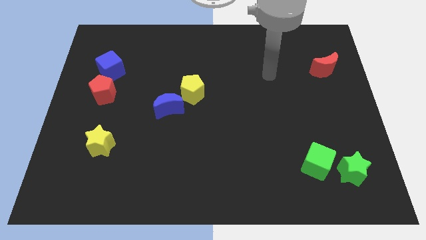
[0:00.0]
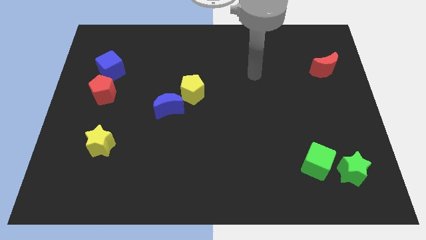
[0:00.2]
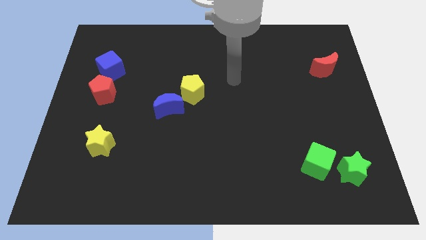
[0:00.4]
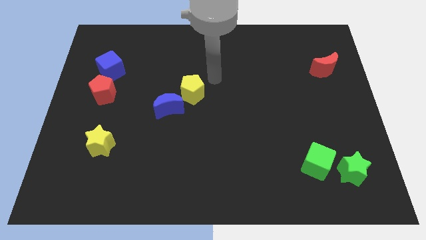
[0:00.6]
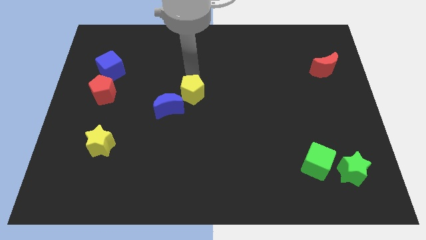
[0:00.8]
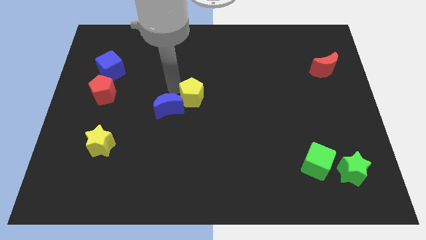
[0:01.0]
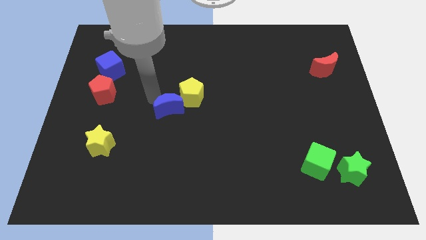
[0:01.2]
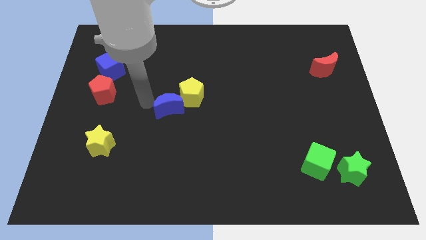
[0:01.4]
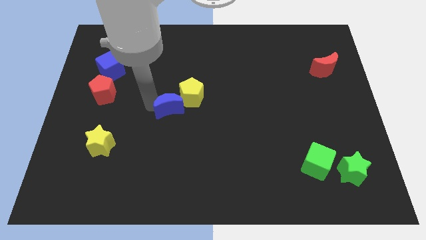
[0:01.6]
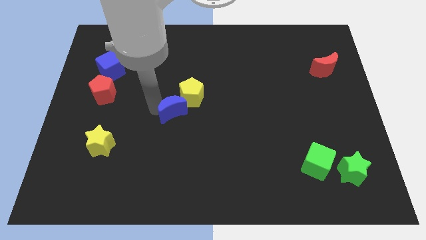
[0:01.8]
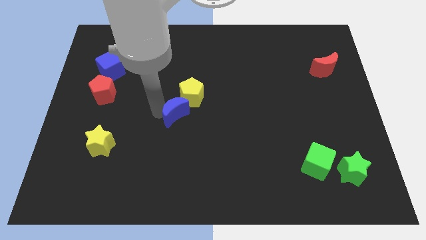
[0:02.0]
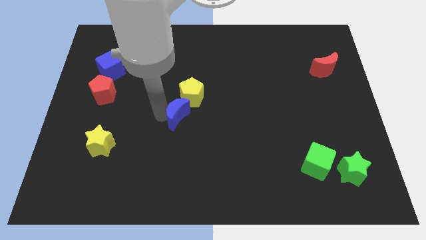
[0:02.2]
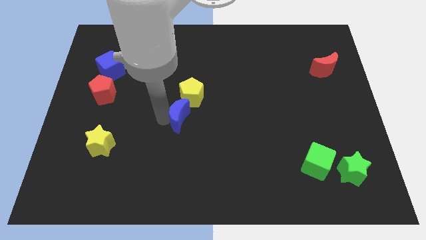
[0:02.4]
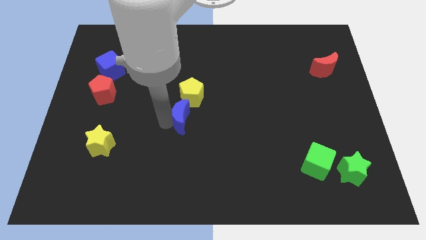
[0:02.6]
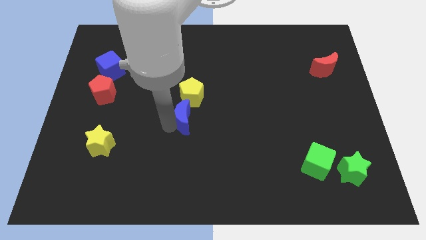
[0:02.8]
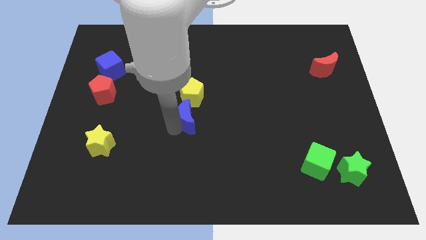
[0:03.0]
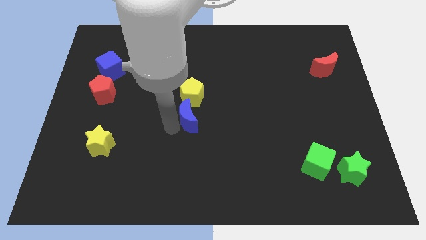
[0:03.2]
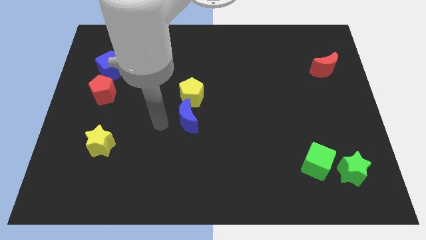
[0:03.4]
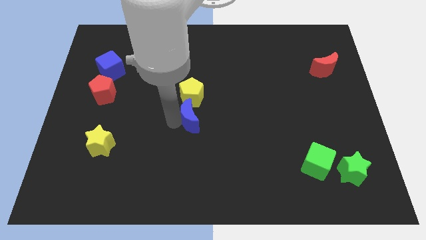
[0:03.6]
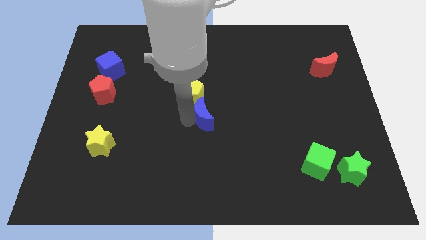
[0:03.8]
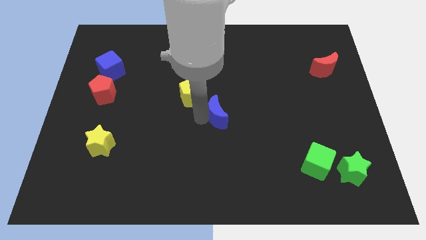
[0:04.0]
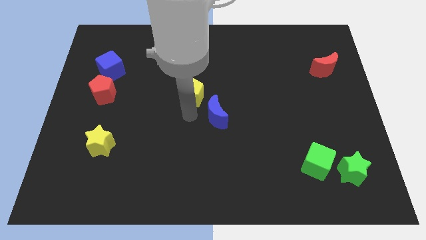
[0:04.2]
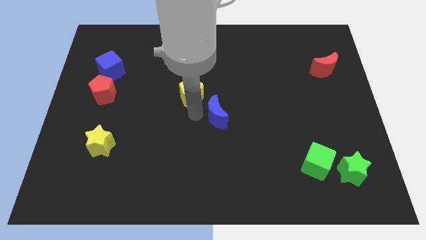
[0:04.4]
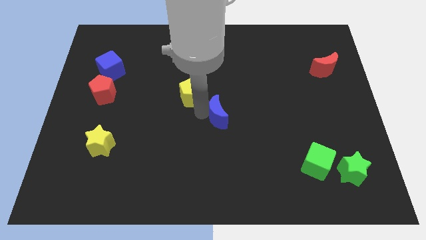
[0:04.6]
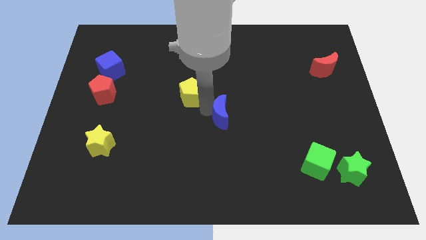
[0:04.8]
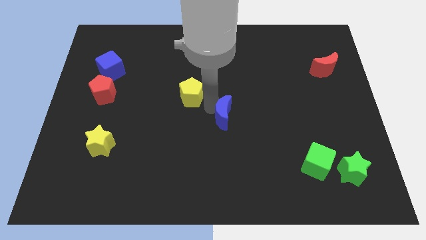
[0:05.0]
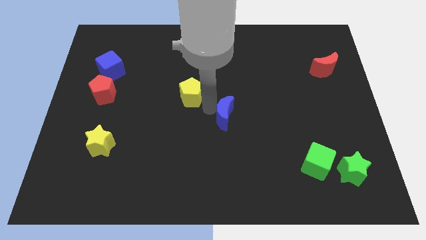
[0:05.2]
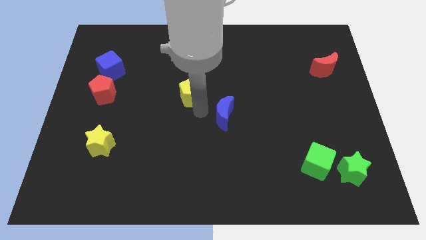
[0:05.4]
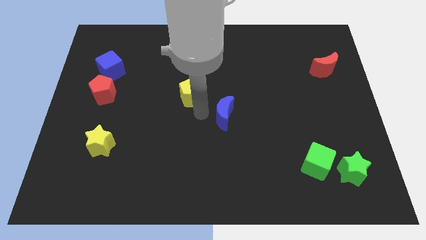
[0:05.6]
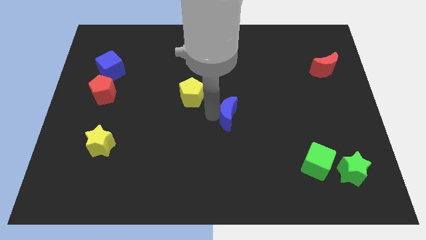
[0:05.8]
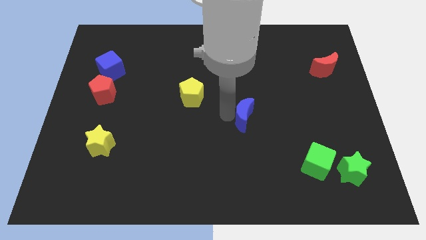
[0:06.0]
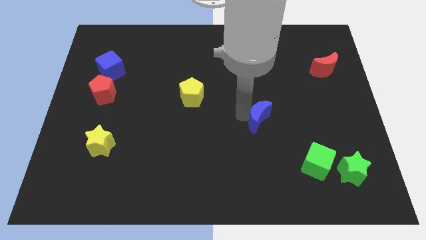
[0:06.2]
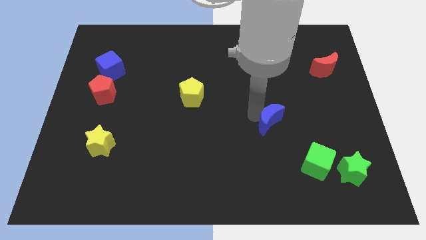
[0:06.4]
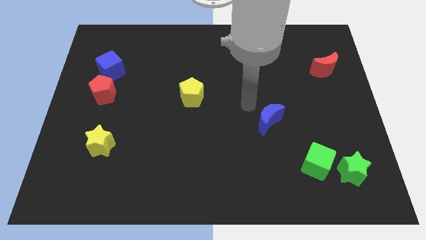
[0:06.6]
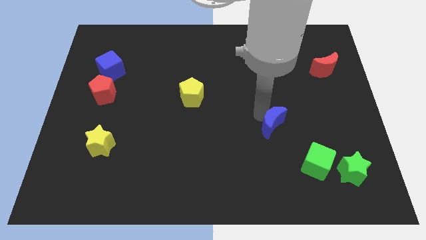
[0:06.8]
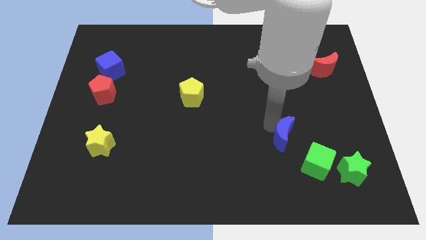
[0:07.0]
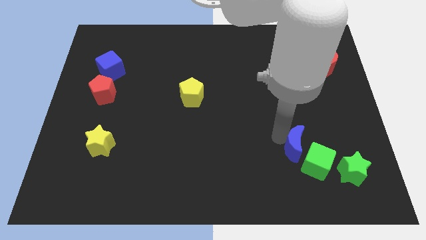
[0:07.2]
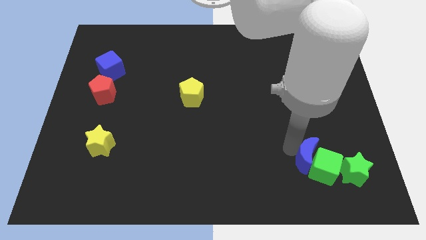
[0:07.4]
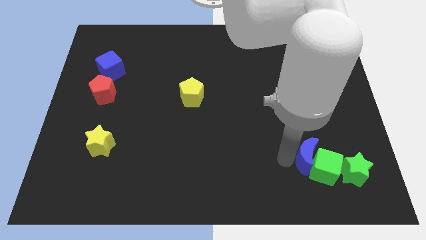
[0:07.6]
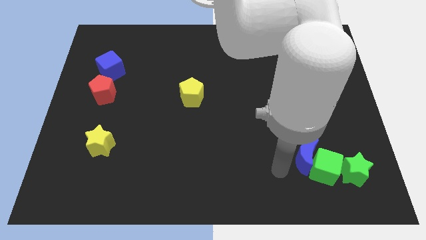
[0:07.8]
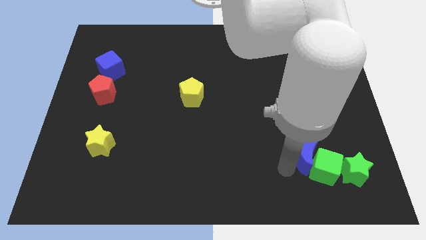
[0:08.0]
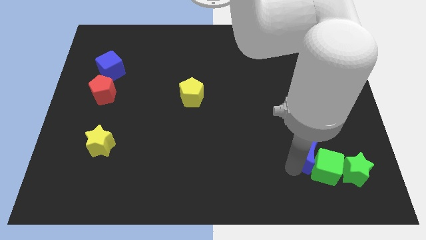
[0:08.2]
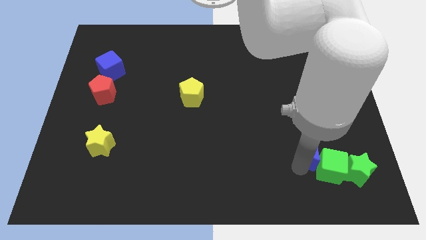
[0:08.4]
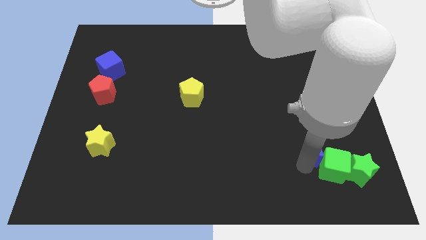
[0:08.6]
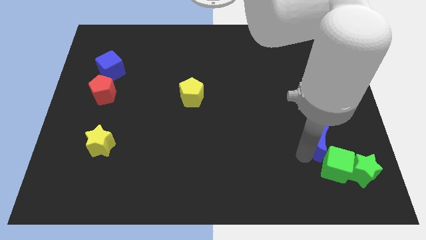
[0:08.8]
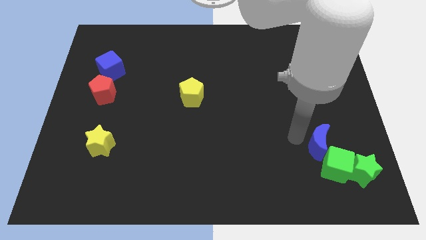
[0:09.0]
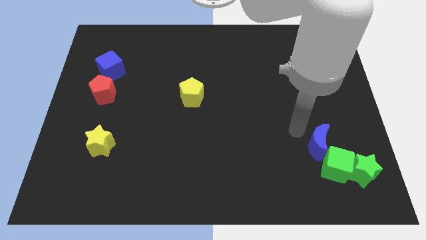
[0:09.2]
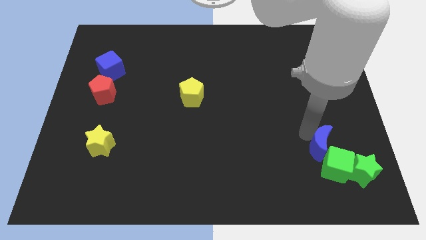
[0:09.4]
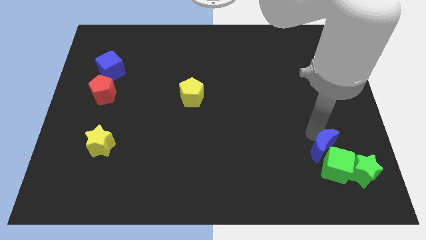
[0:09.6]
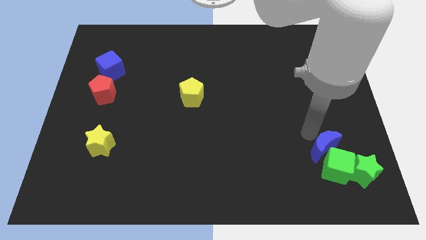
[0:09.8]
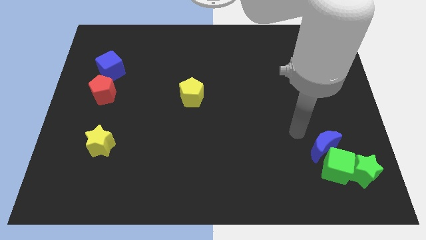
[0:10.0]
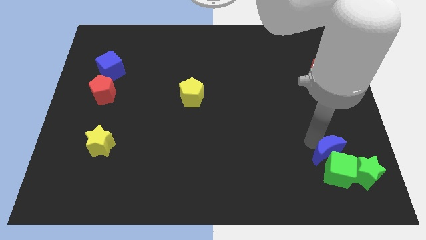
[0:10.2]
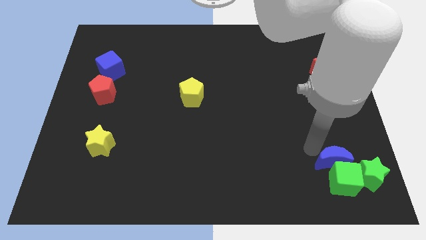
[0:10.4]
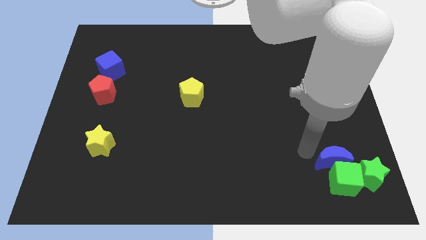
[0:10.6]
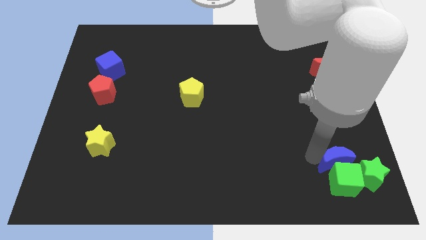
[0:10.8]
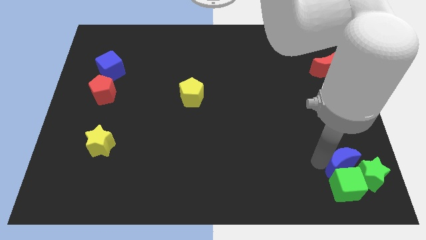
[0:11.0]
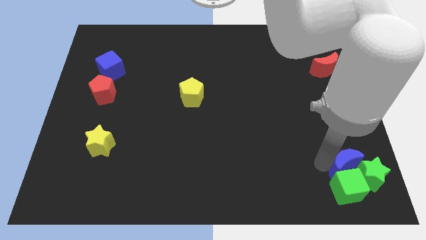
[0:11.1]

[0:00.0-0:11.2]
slide the blue moon close to the green star
